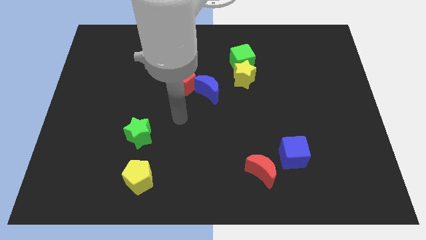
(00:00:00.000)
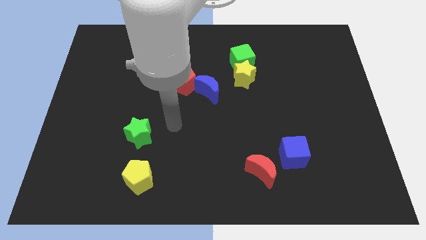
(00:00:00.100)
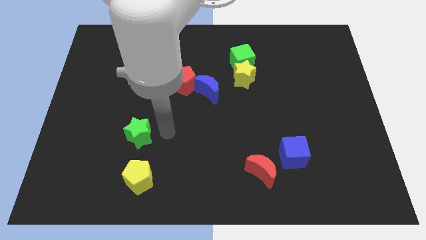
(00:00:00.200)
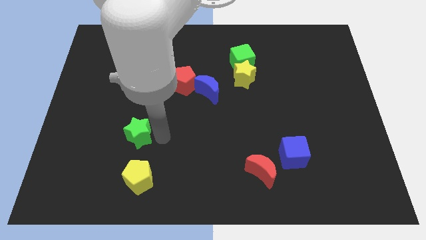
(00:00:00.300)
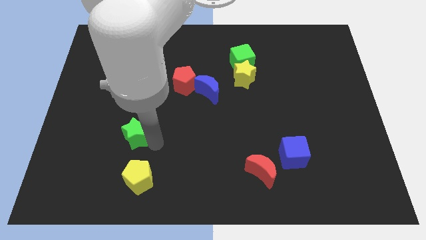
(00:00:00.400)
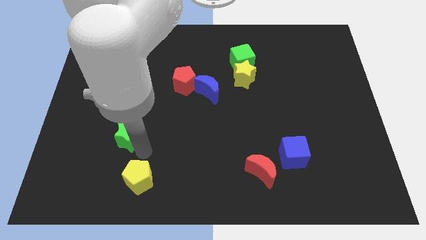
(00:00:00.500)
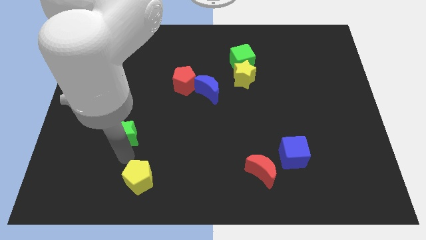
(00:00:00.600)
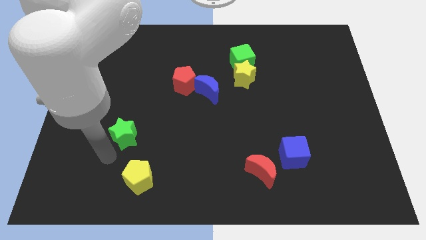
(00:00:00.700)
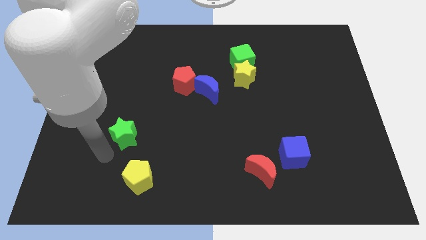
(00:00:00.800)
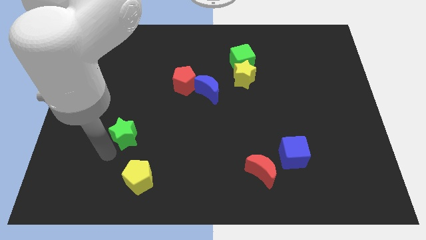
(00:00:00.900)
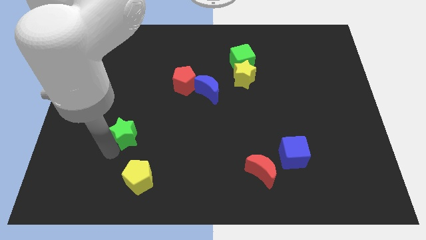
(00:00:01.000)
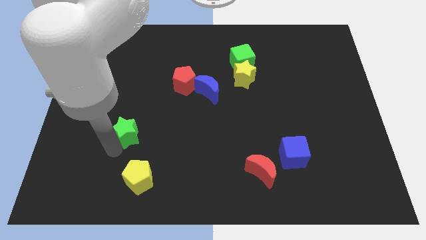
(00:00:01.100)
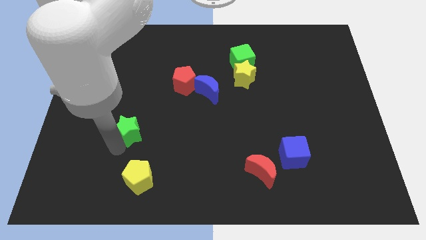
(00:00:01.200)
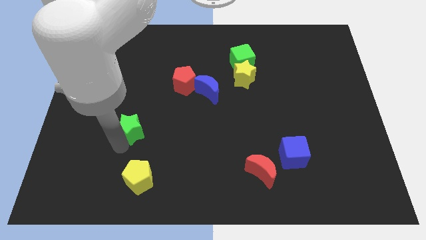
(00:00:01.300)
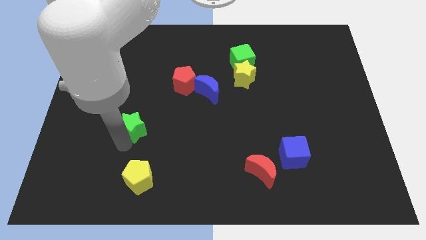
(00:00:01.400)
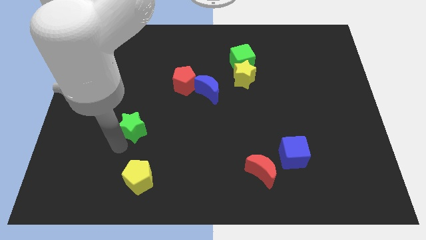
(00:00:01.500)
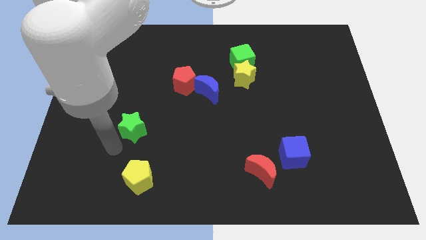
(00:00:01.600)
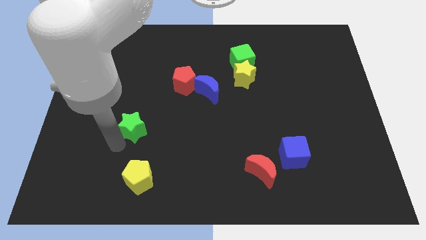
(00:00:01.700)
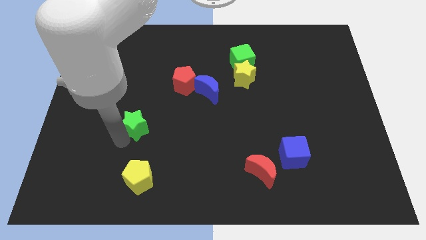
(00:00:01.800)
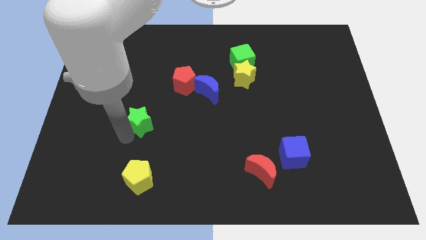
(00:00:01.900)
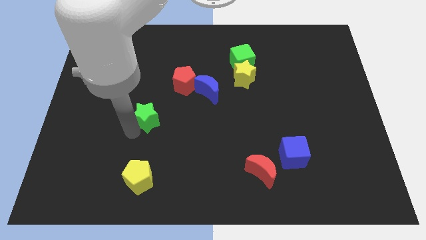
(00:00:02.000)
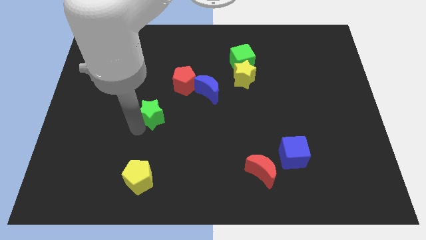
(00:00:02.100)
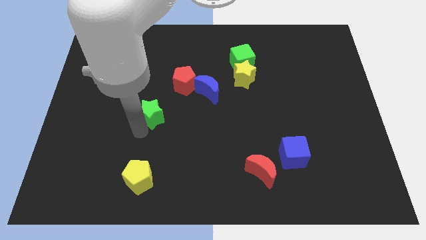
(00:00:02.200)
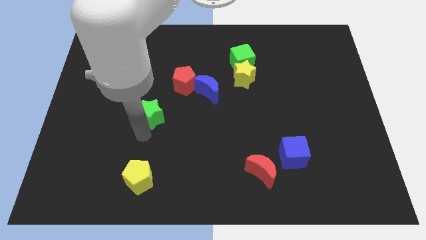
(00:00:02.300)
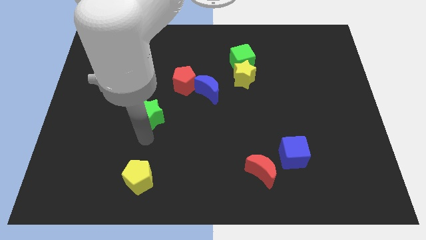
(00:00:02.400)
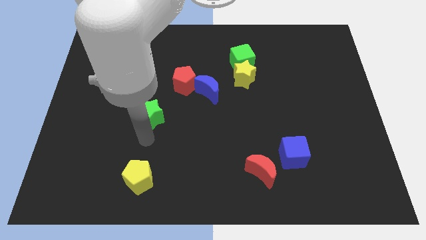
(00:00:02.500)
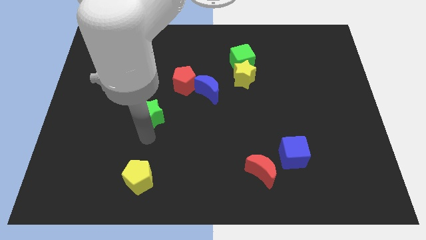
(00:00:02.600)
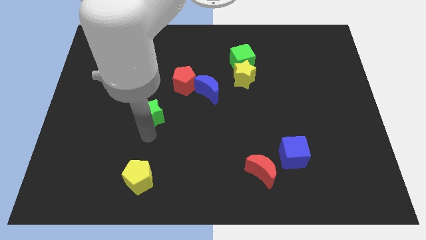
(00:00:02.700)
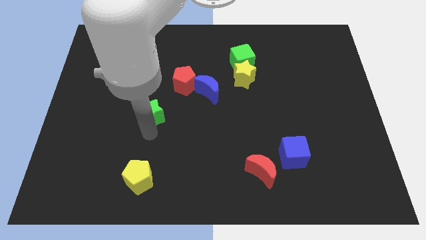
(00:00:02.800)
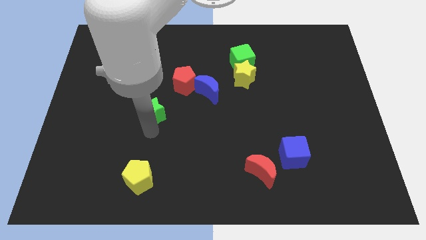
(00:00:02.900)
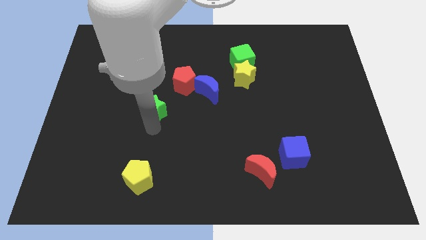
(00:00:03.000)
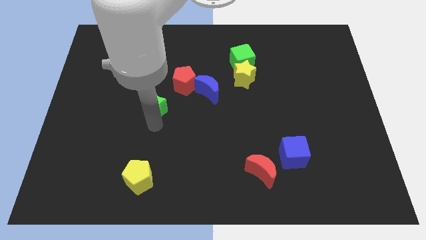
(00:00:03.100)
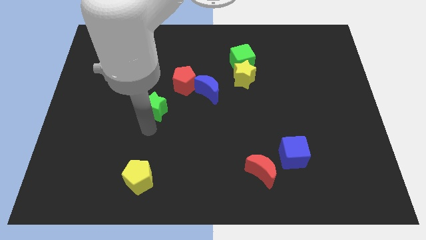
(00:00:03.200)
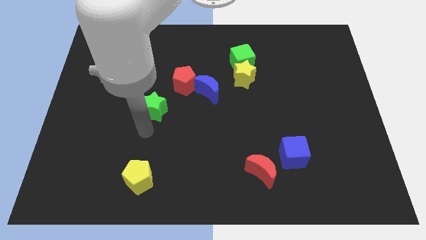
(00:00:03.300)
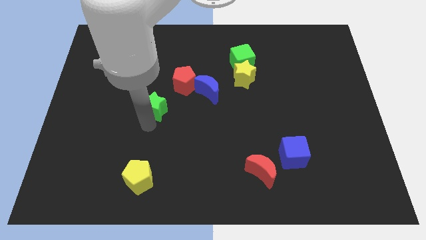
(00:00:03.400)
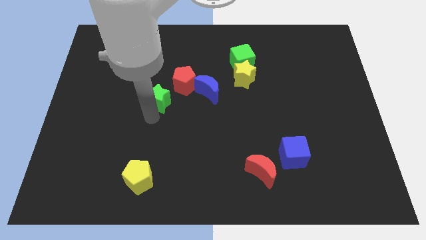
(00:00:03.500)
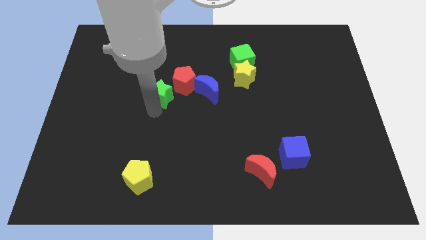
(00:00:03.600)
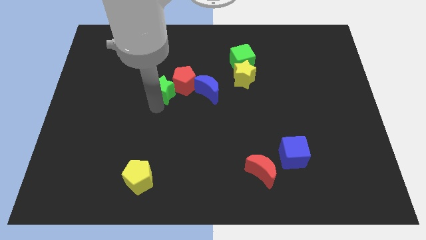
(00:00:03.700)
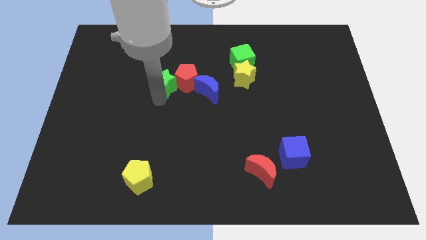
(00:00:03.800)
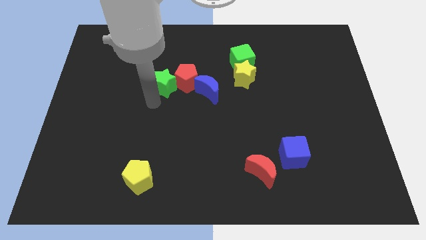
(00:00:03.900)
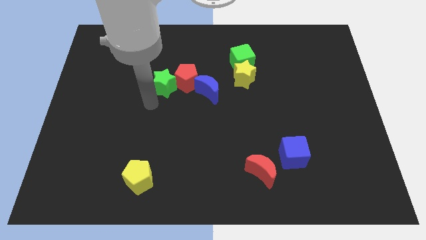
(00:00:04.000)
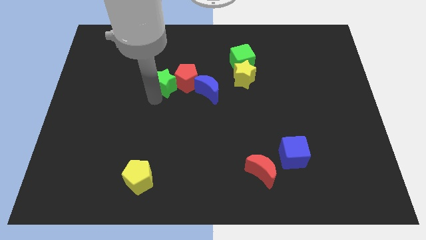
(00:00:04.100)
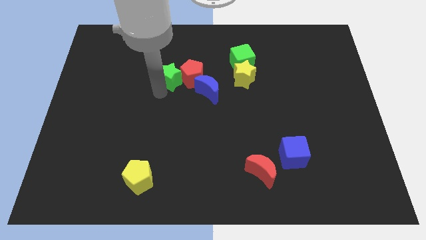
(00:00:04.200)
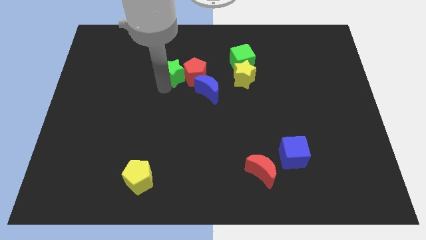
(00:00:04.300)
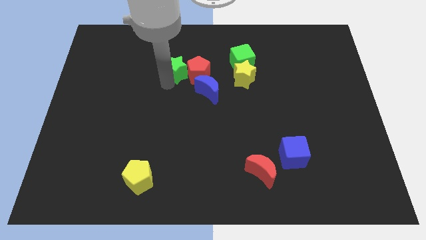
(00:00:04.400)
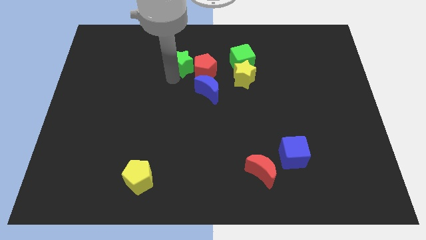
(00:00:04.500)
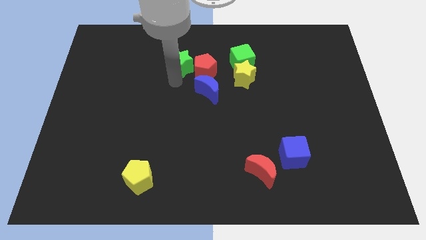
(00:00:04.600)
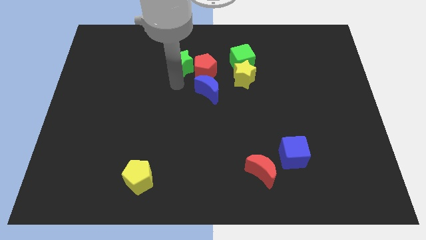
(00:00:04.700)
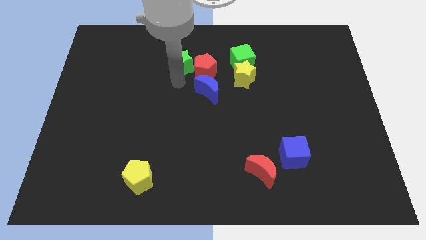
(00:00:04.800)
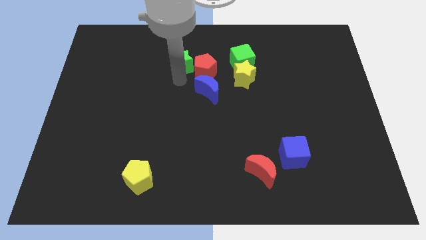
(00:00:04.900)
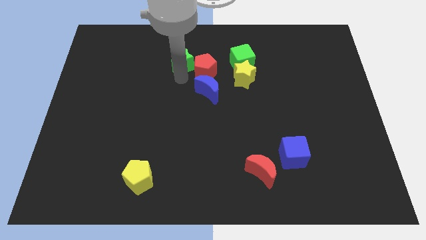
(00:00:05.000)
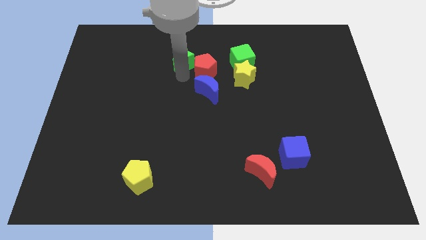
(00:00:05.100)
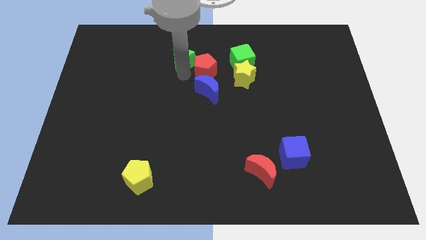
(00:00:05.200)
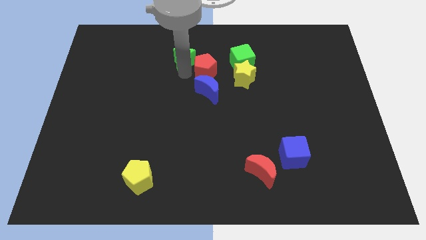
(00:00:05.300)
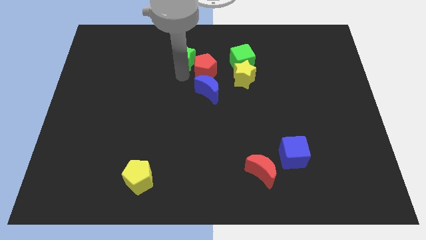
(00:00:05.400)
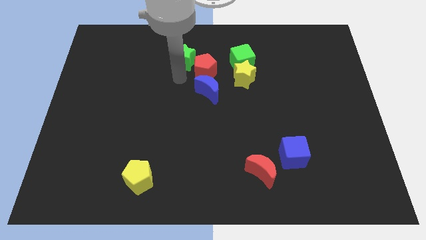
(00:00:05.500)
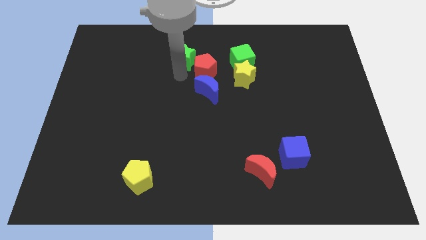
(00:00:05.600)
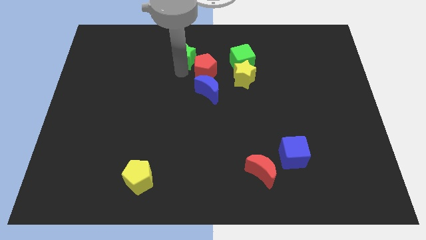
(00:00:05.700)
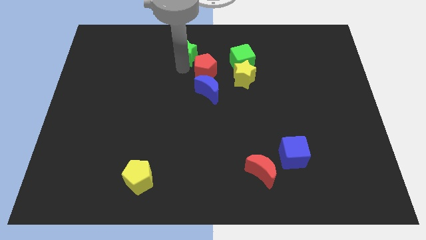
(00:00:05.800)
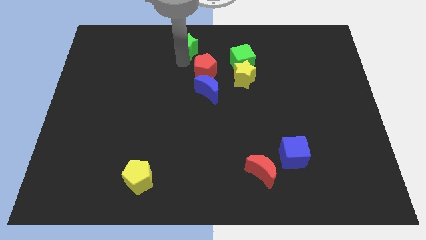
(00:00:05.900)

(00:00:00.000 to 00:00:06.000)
push the green star to the top

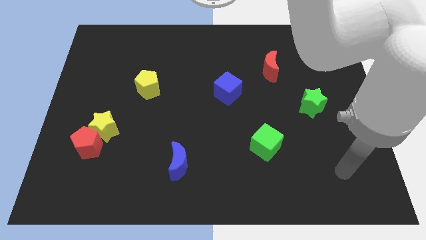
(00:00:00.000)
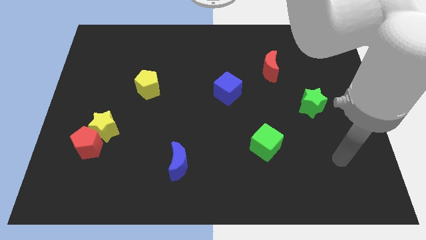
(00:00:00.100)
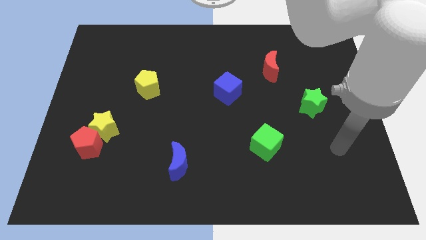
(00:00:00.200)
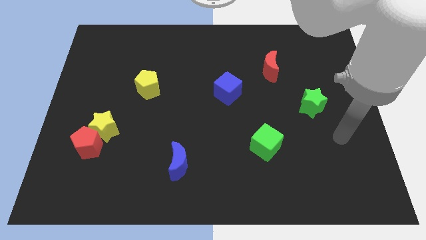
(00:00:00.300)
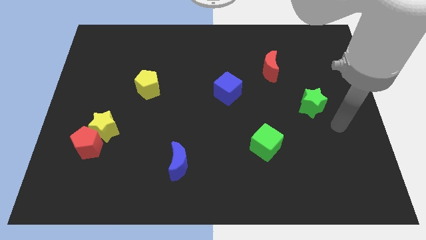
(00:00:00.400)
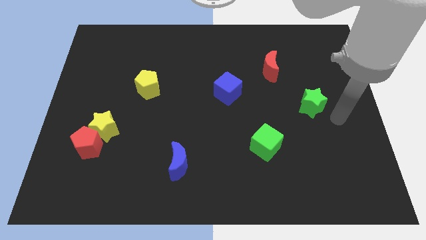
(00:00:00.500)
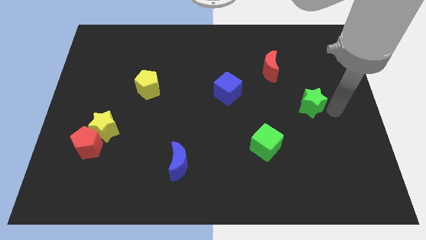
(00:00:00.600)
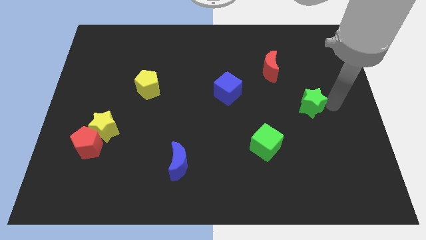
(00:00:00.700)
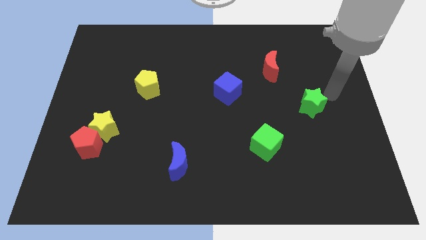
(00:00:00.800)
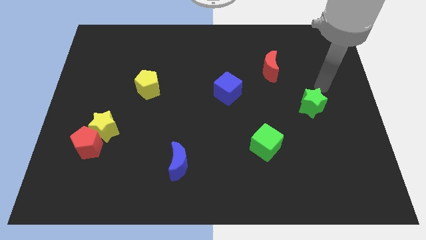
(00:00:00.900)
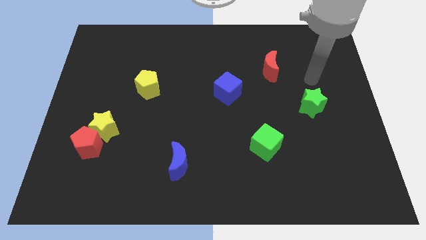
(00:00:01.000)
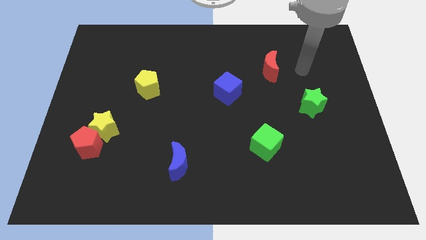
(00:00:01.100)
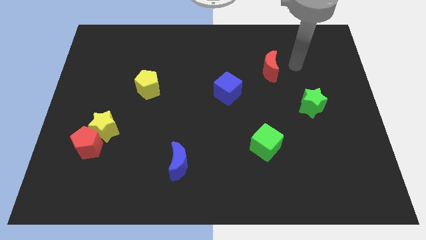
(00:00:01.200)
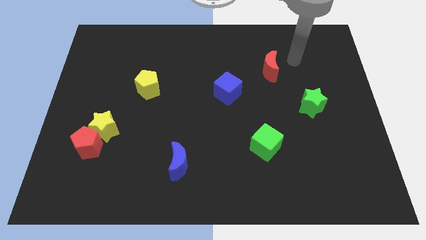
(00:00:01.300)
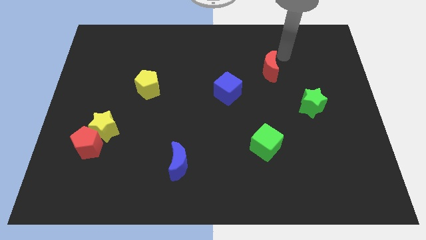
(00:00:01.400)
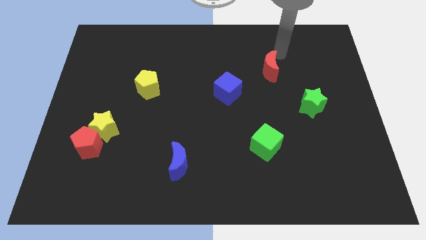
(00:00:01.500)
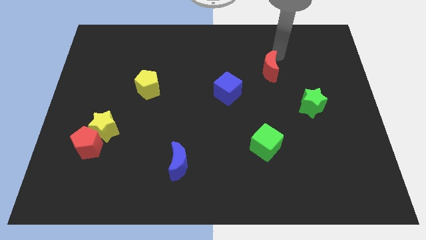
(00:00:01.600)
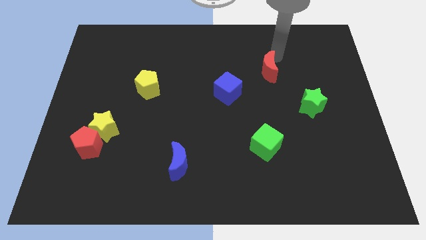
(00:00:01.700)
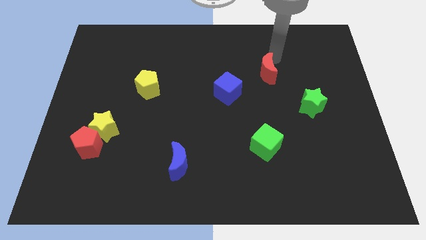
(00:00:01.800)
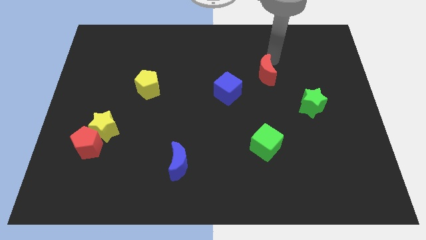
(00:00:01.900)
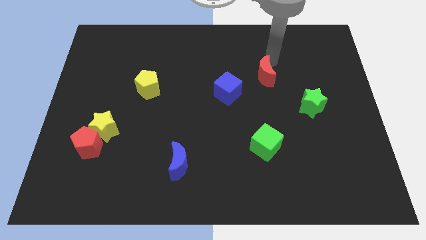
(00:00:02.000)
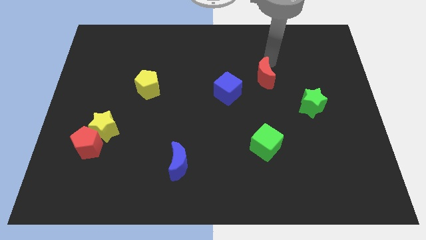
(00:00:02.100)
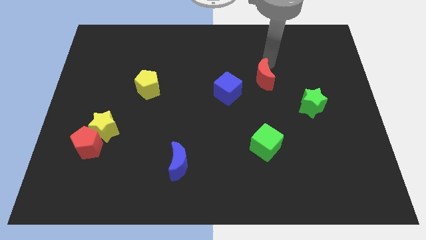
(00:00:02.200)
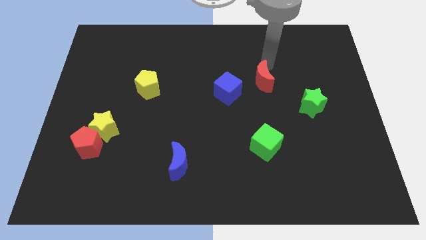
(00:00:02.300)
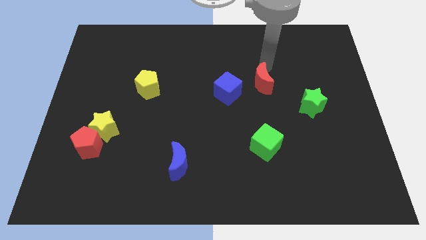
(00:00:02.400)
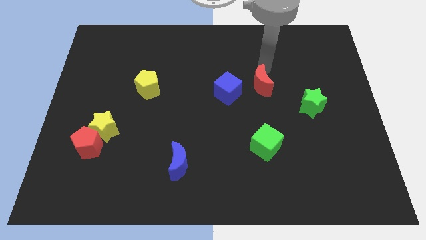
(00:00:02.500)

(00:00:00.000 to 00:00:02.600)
push the red moon to the center
